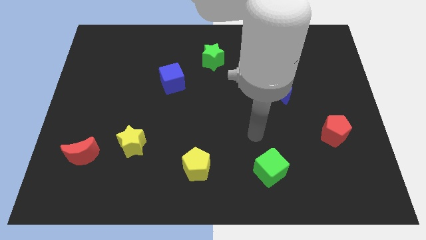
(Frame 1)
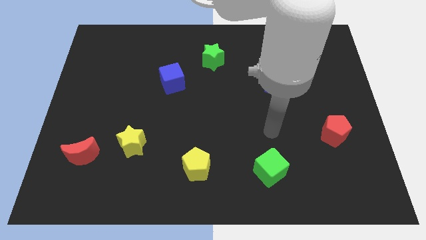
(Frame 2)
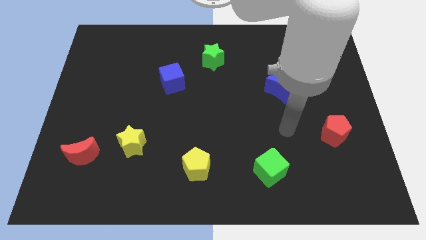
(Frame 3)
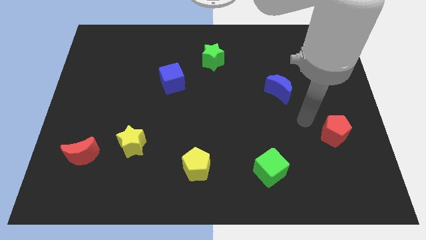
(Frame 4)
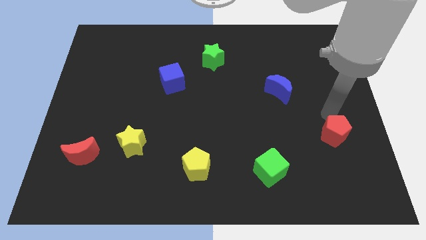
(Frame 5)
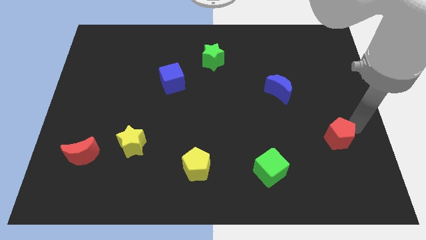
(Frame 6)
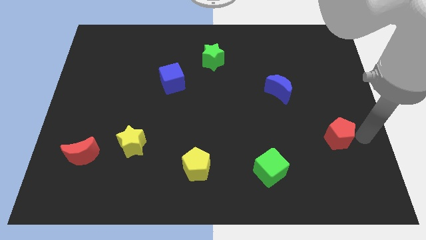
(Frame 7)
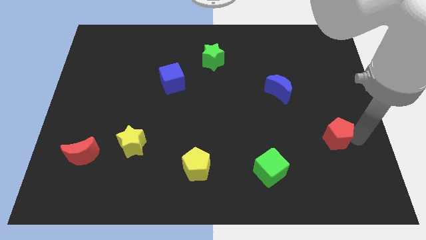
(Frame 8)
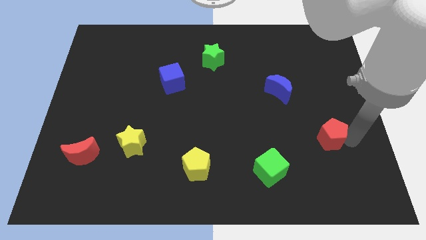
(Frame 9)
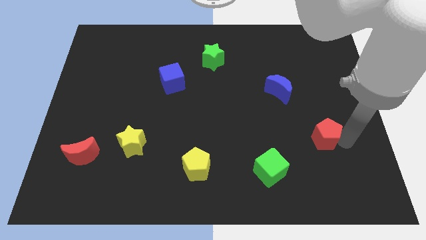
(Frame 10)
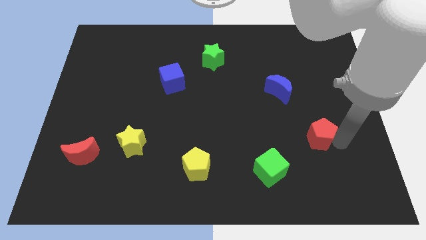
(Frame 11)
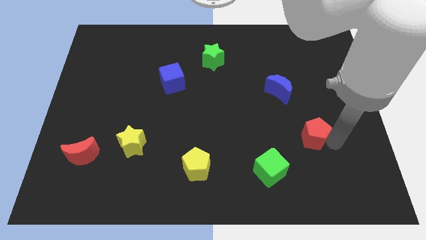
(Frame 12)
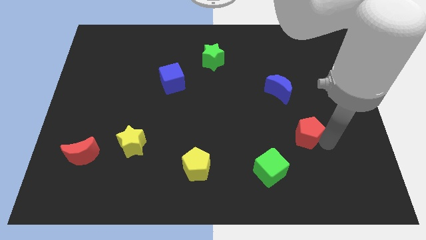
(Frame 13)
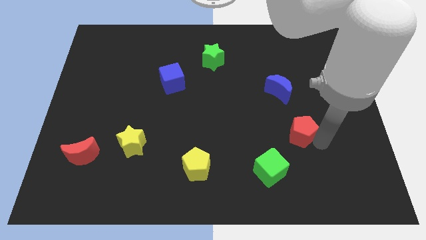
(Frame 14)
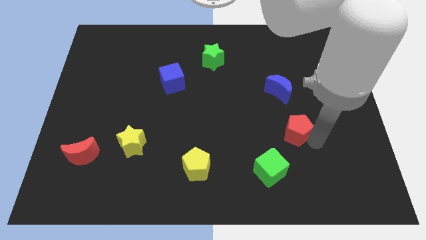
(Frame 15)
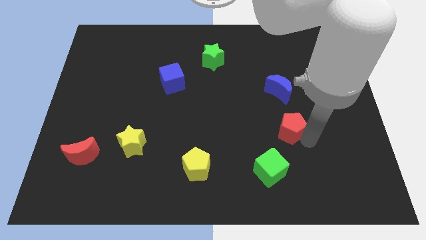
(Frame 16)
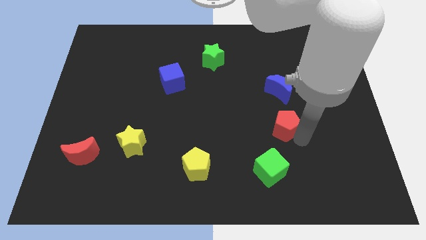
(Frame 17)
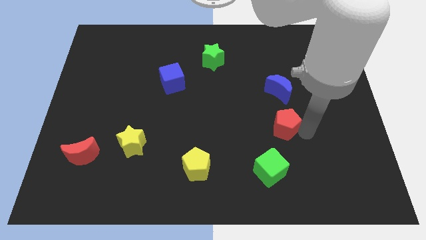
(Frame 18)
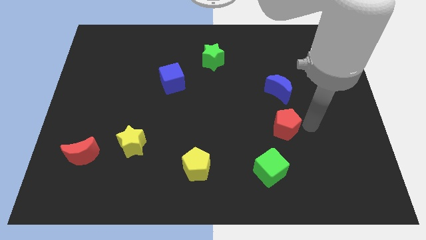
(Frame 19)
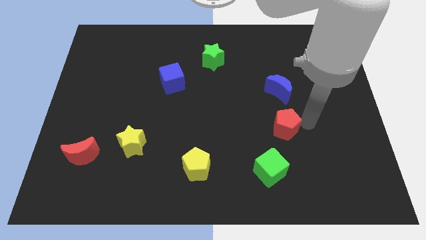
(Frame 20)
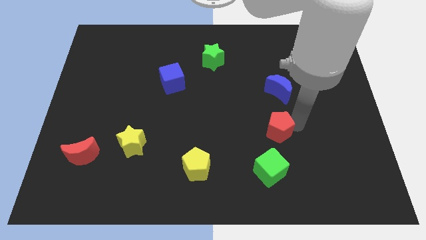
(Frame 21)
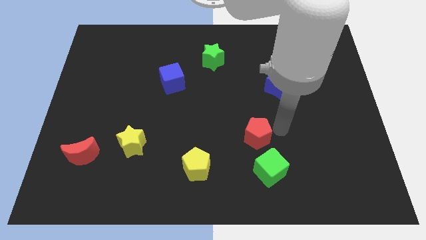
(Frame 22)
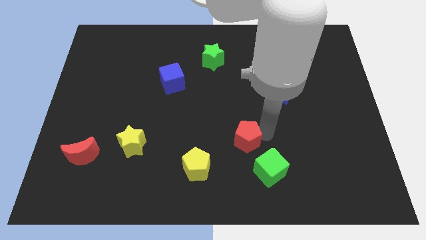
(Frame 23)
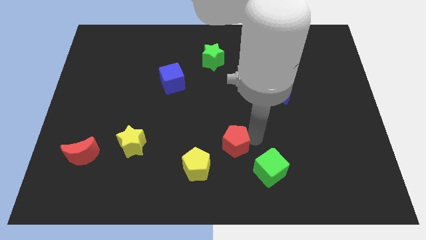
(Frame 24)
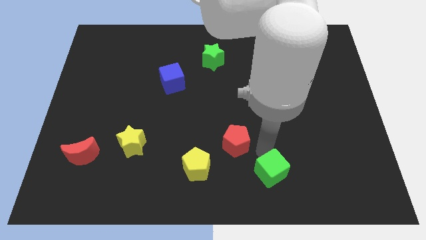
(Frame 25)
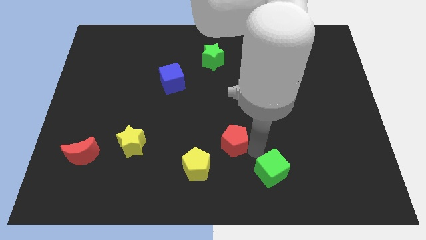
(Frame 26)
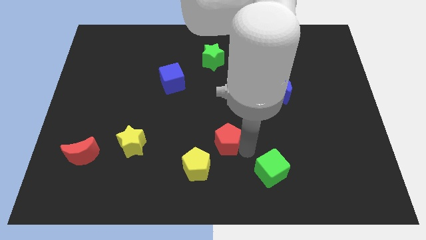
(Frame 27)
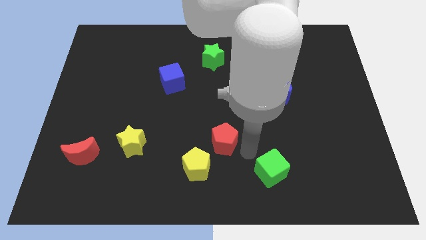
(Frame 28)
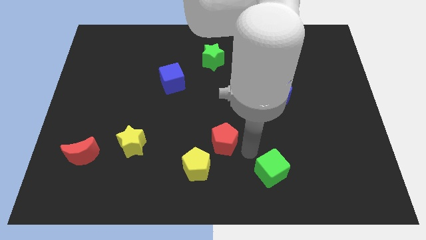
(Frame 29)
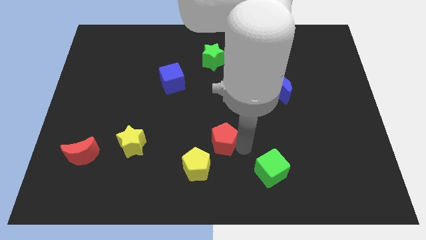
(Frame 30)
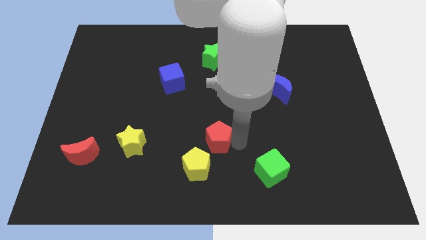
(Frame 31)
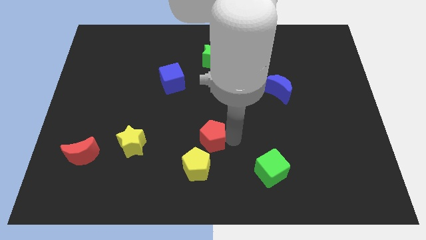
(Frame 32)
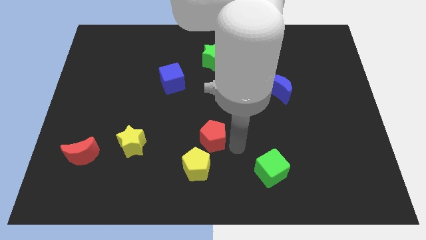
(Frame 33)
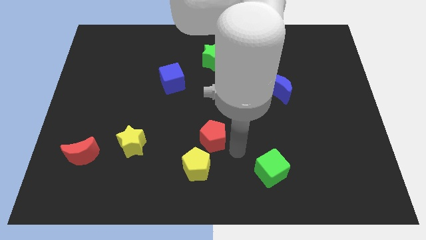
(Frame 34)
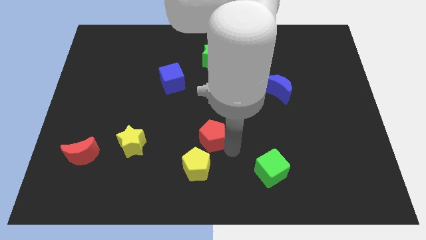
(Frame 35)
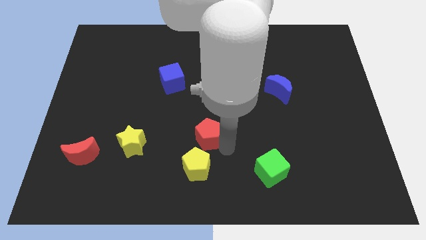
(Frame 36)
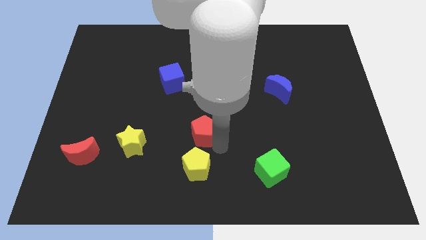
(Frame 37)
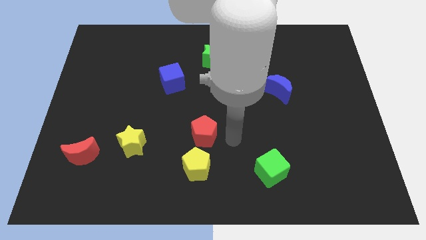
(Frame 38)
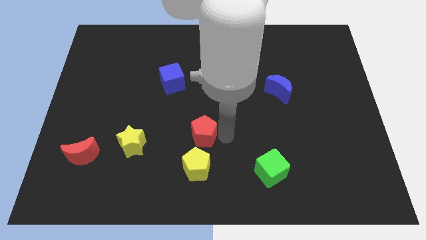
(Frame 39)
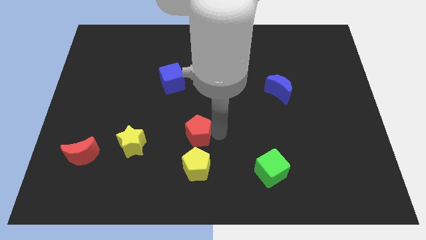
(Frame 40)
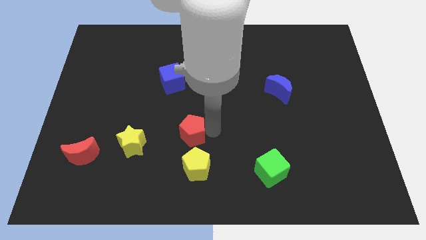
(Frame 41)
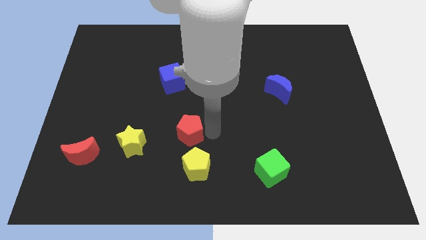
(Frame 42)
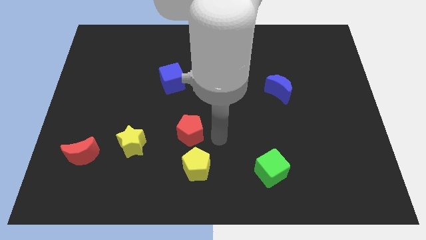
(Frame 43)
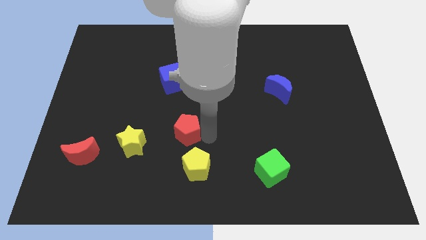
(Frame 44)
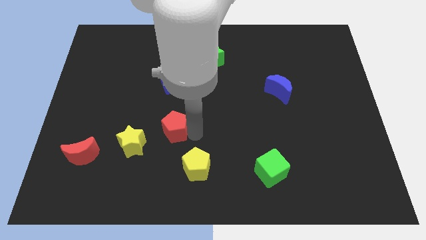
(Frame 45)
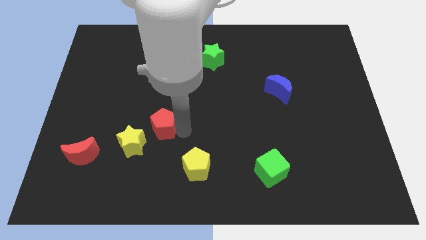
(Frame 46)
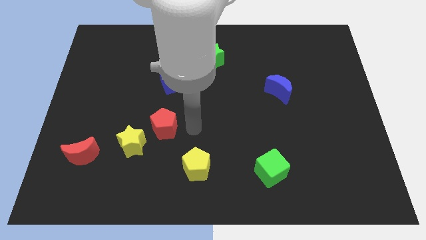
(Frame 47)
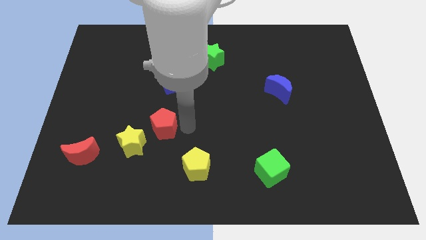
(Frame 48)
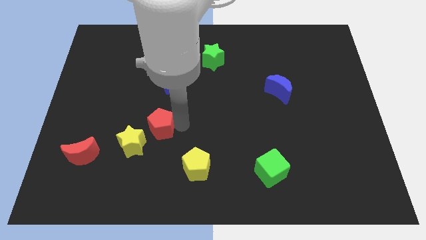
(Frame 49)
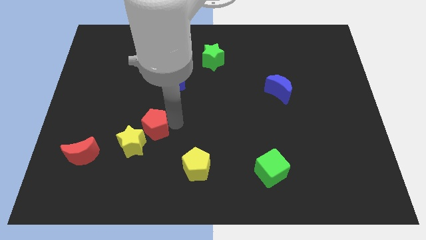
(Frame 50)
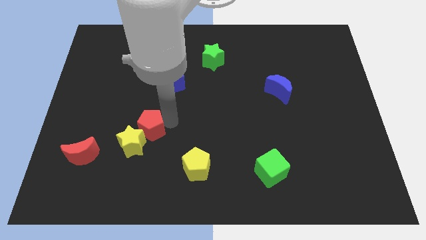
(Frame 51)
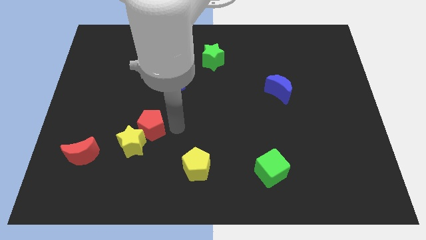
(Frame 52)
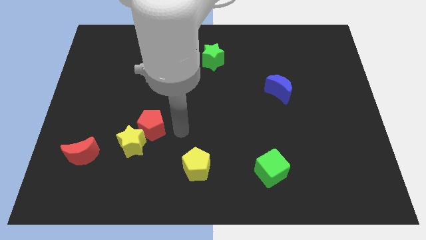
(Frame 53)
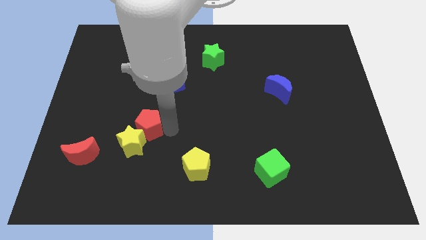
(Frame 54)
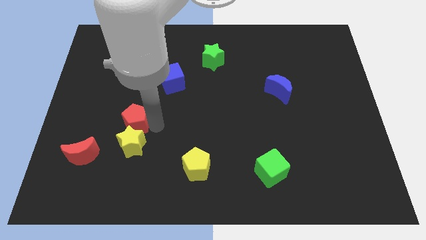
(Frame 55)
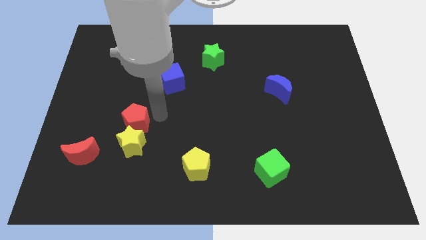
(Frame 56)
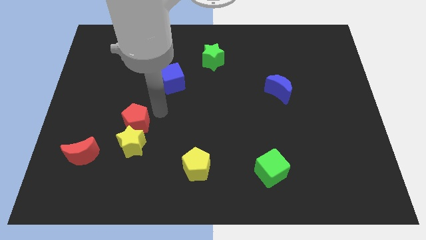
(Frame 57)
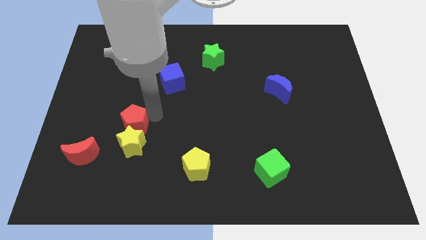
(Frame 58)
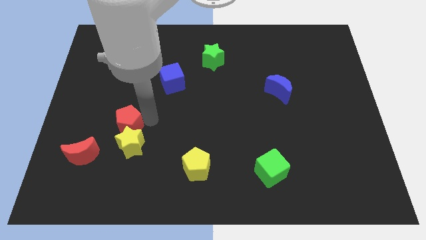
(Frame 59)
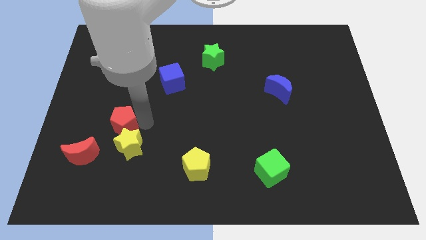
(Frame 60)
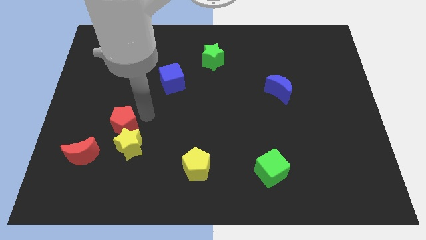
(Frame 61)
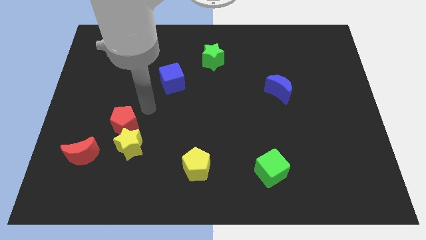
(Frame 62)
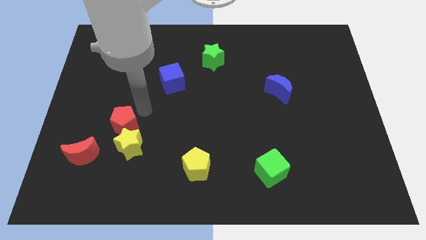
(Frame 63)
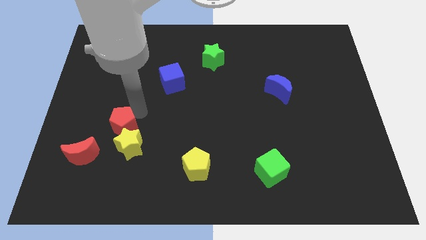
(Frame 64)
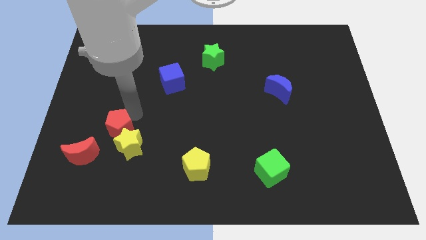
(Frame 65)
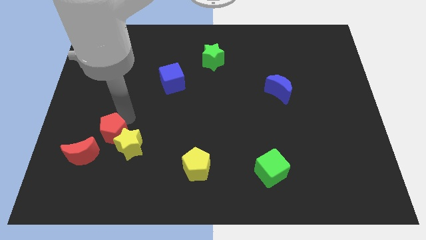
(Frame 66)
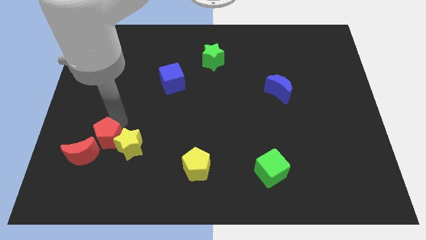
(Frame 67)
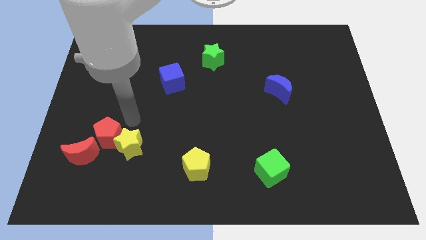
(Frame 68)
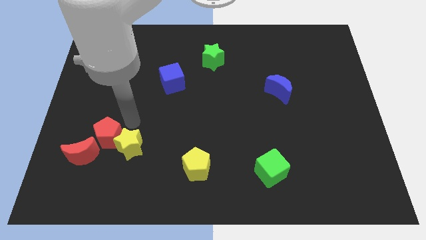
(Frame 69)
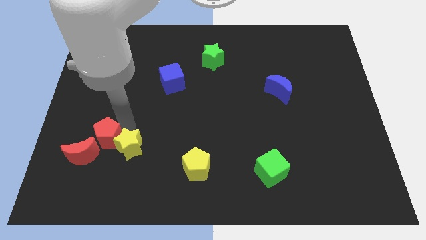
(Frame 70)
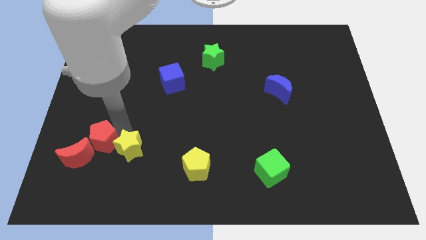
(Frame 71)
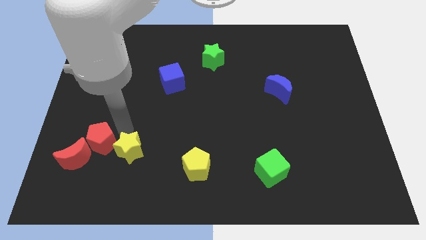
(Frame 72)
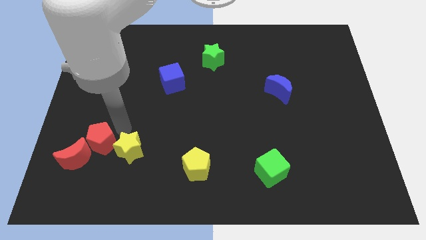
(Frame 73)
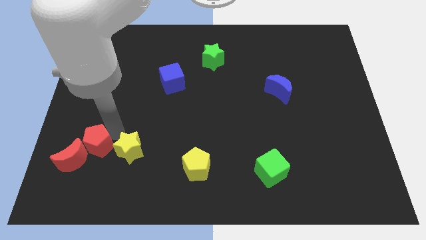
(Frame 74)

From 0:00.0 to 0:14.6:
put the red pentagon to the red moon
